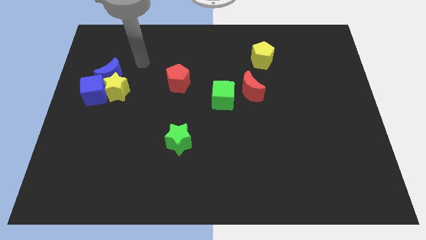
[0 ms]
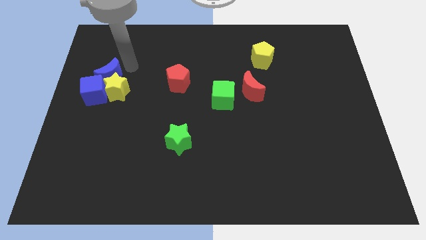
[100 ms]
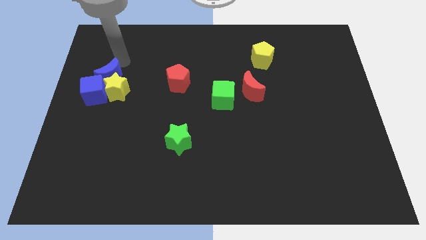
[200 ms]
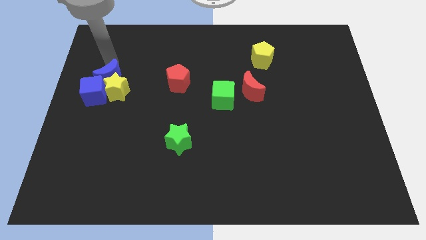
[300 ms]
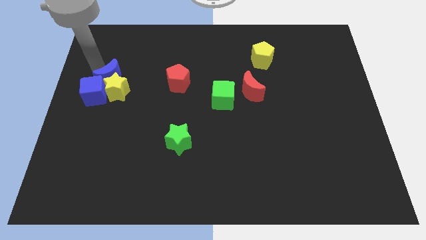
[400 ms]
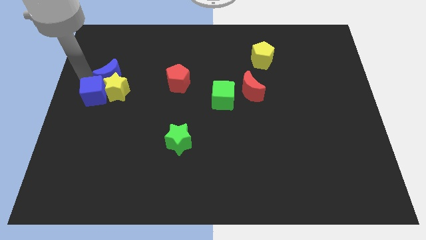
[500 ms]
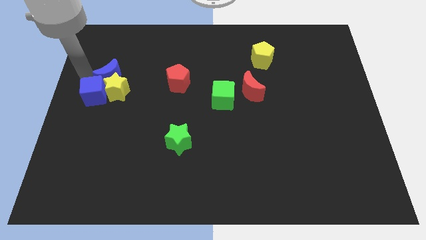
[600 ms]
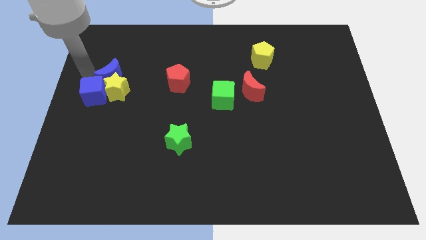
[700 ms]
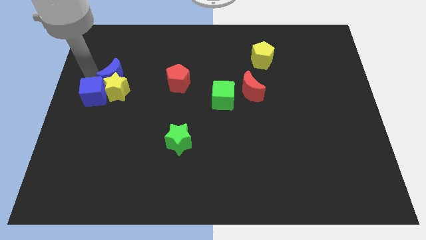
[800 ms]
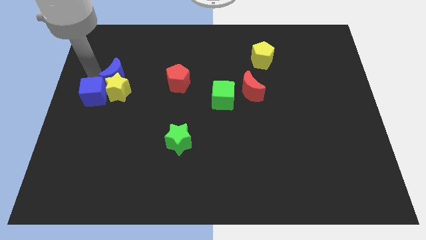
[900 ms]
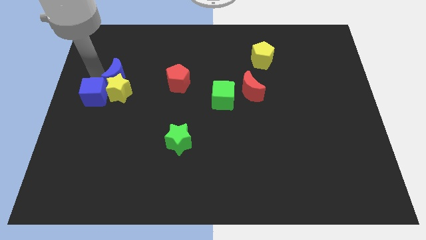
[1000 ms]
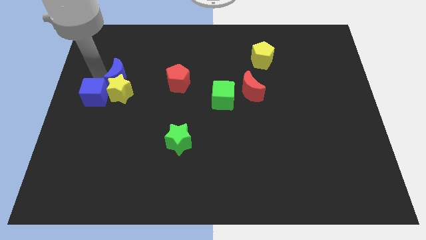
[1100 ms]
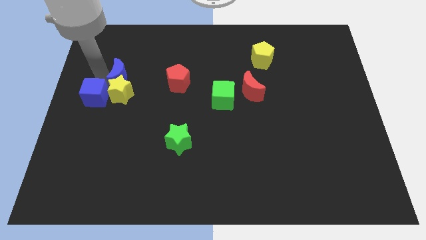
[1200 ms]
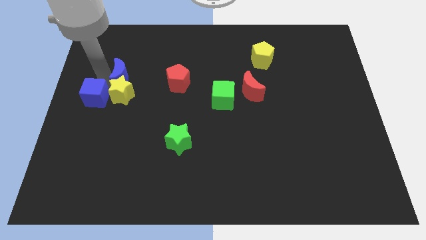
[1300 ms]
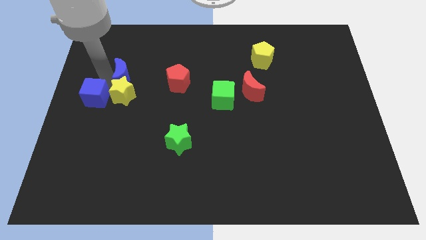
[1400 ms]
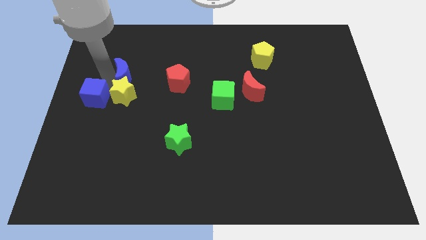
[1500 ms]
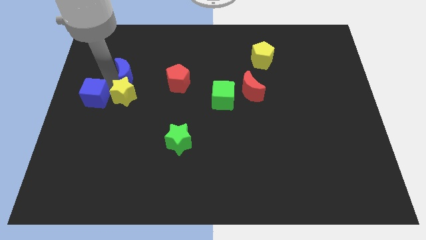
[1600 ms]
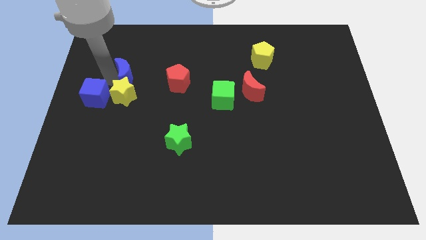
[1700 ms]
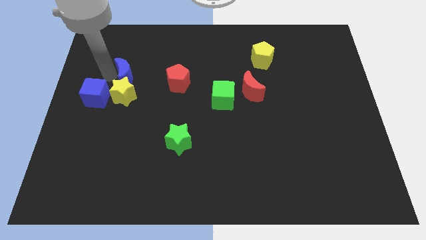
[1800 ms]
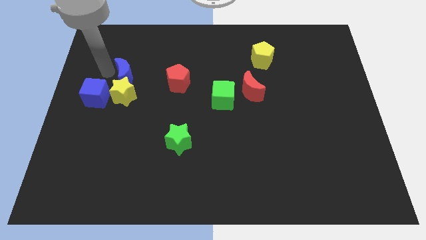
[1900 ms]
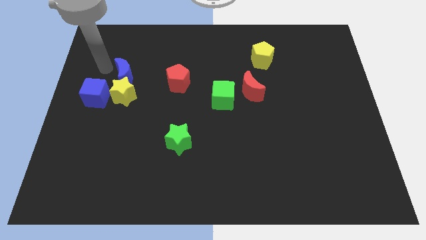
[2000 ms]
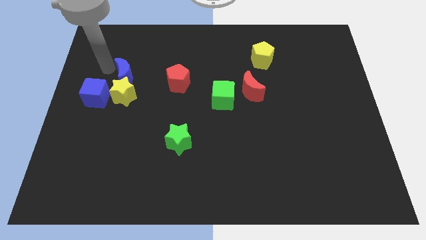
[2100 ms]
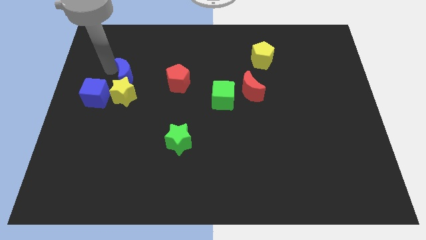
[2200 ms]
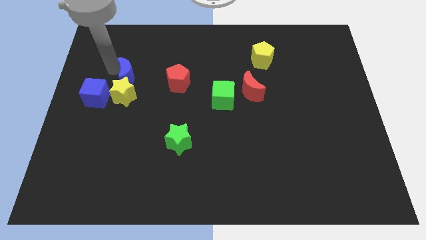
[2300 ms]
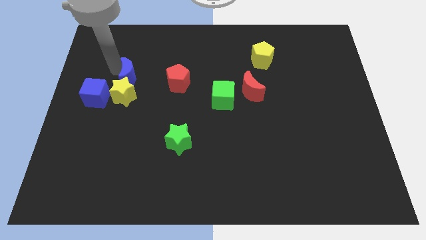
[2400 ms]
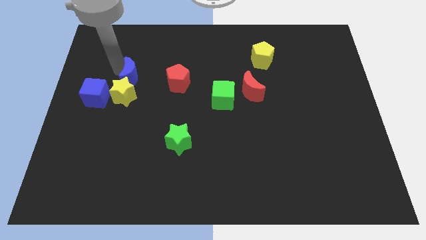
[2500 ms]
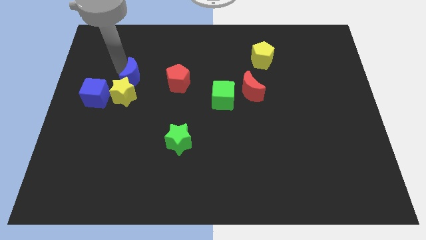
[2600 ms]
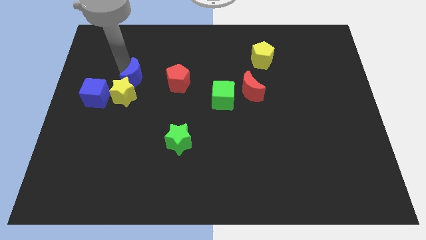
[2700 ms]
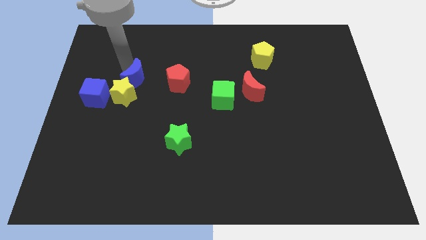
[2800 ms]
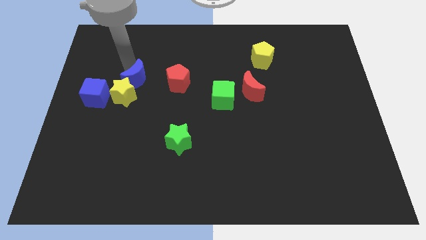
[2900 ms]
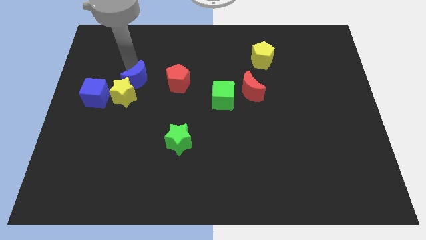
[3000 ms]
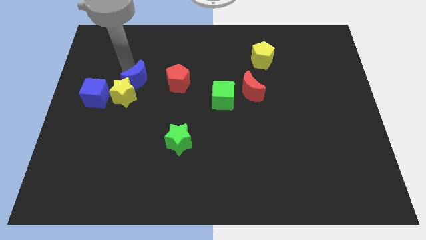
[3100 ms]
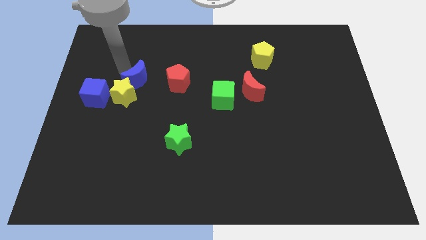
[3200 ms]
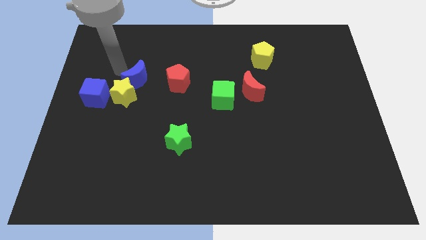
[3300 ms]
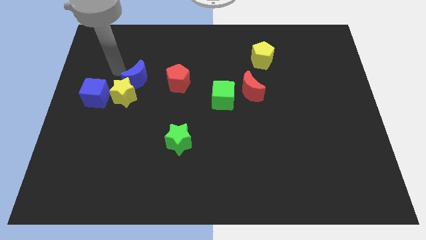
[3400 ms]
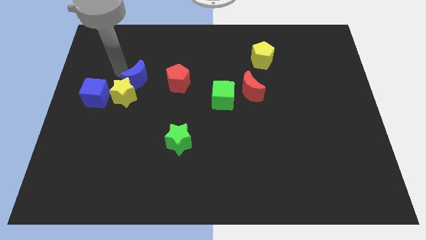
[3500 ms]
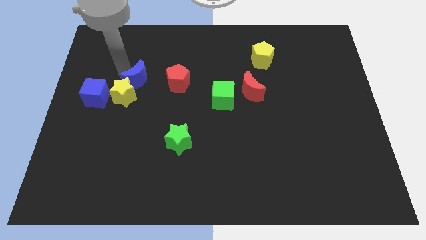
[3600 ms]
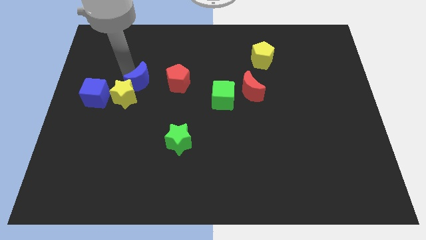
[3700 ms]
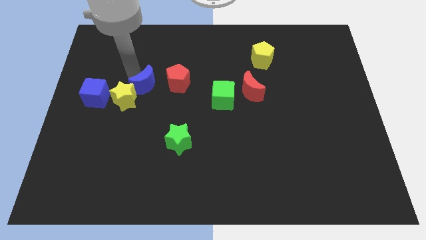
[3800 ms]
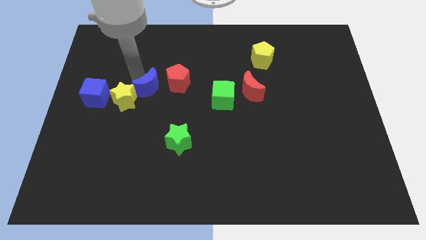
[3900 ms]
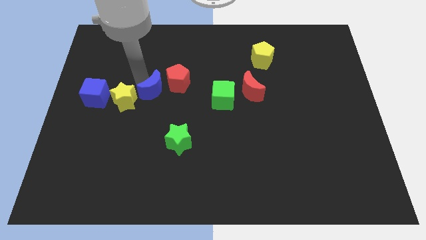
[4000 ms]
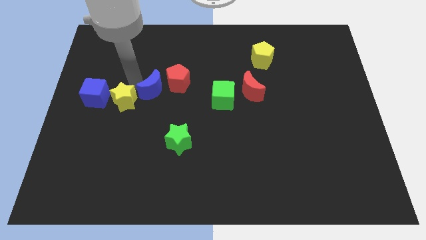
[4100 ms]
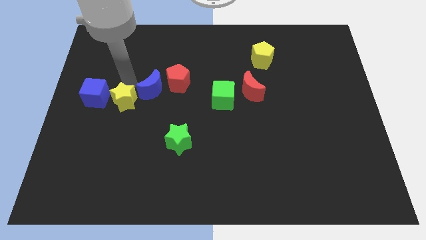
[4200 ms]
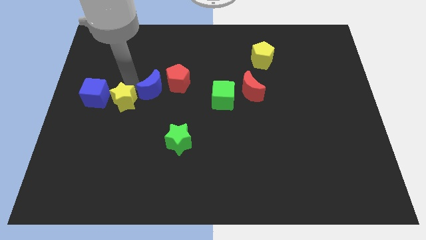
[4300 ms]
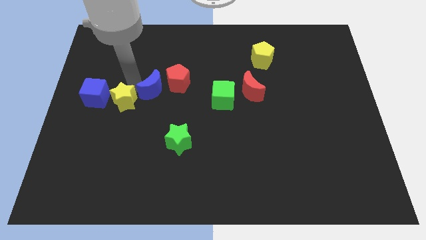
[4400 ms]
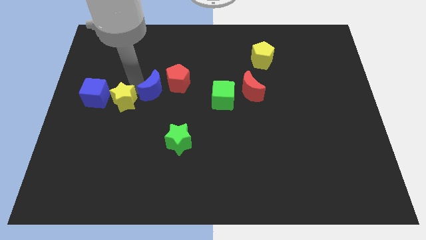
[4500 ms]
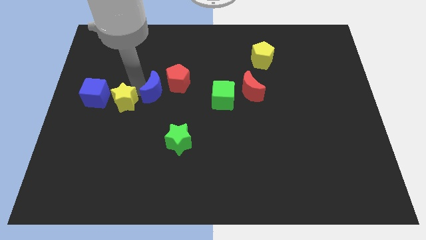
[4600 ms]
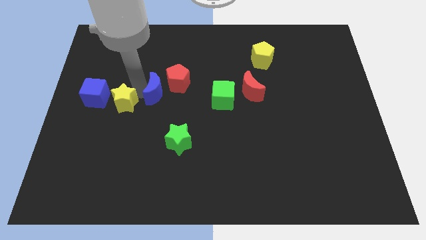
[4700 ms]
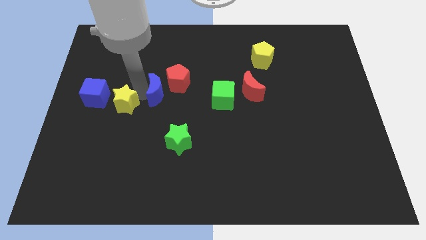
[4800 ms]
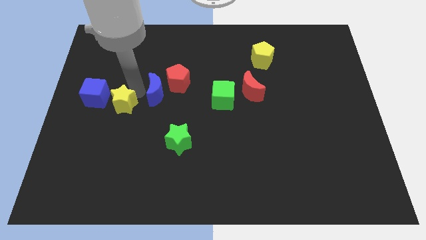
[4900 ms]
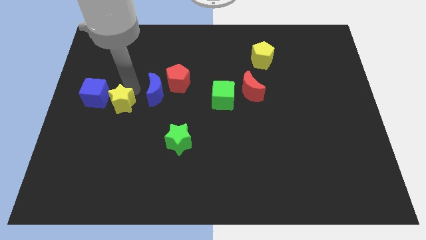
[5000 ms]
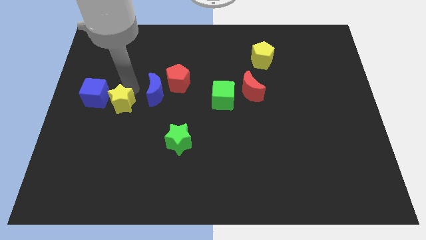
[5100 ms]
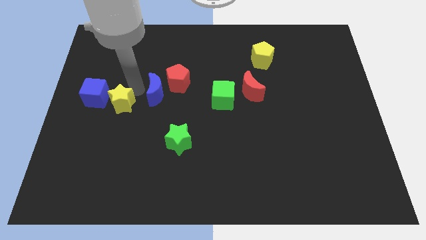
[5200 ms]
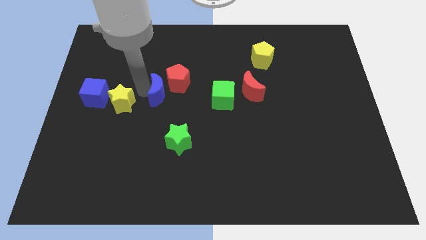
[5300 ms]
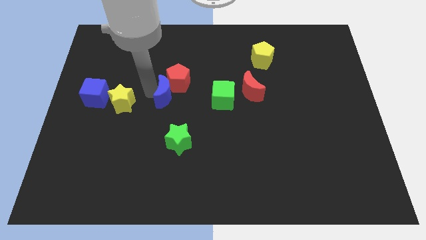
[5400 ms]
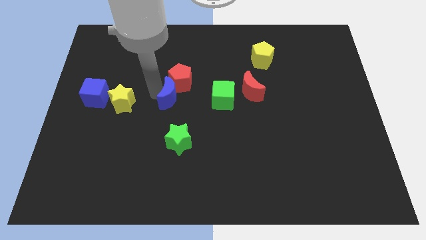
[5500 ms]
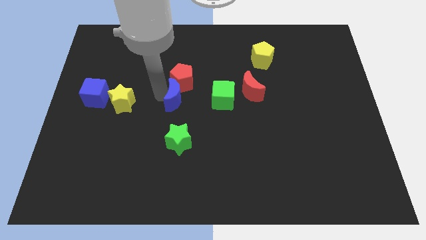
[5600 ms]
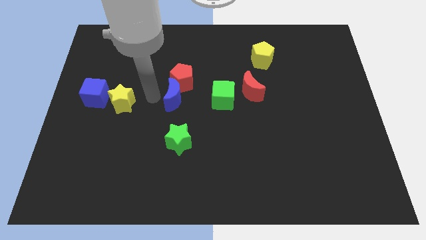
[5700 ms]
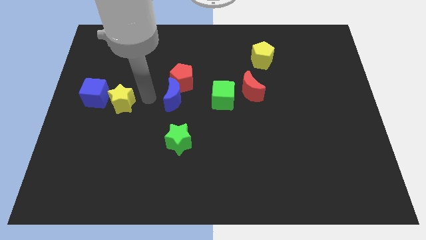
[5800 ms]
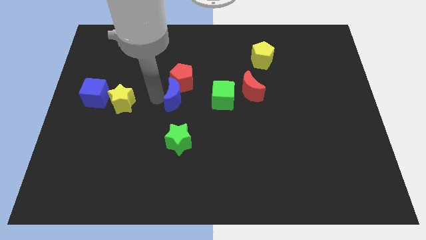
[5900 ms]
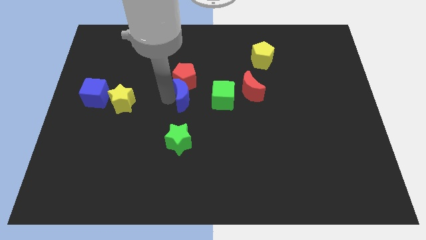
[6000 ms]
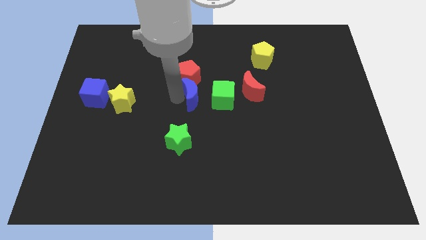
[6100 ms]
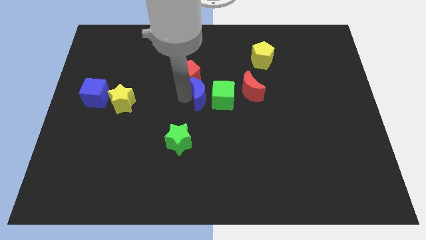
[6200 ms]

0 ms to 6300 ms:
put the blue moon to the green cube
